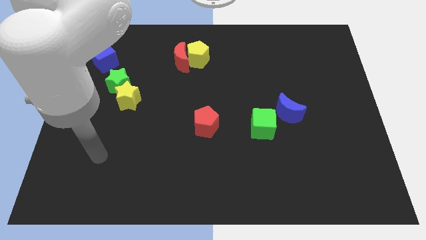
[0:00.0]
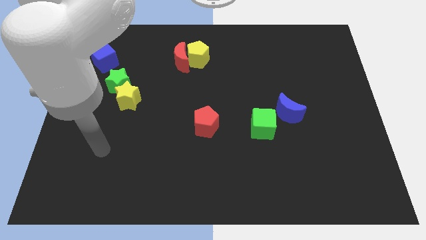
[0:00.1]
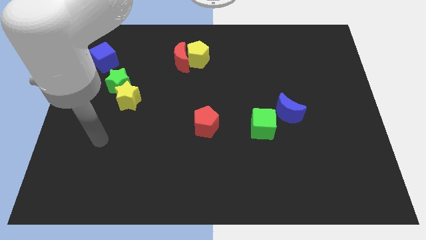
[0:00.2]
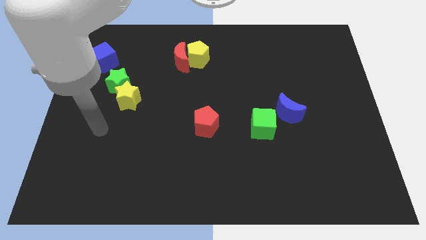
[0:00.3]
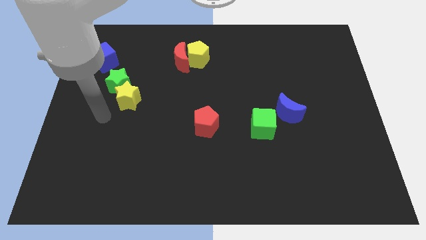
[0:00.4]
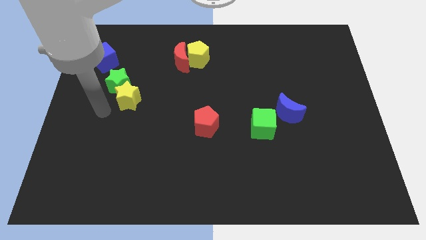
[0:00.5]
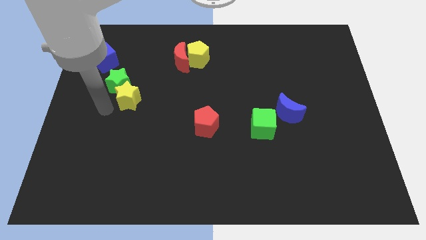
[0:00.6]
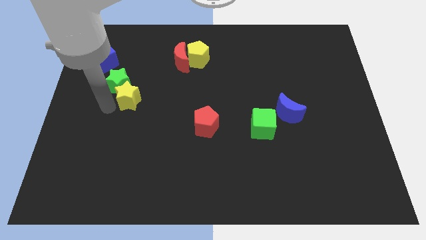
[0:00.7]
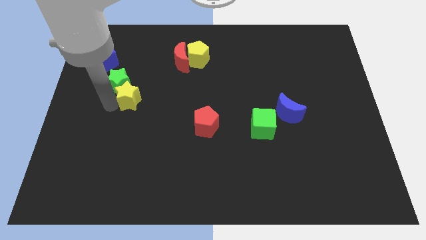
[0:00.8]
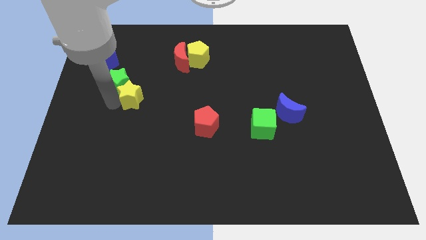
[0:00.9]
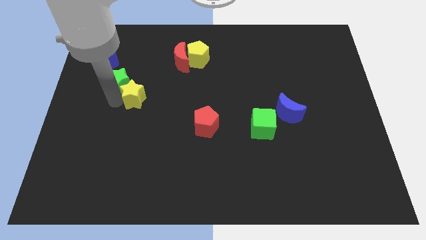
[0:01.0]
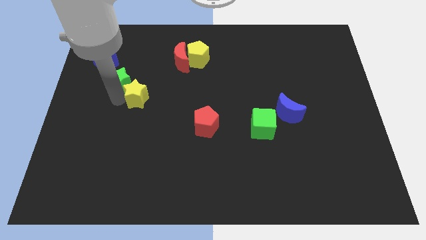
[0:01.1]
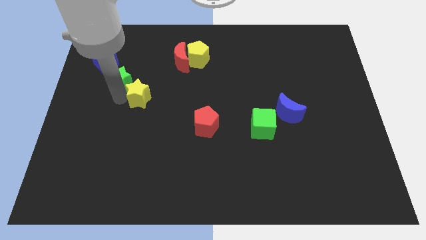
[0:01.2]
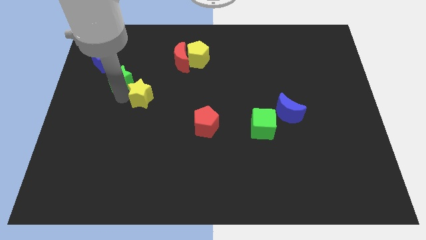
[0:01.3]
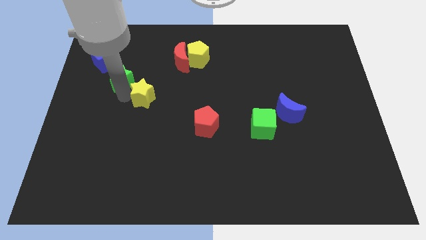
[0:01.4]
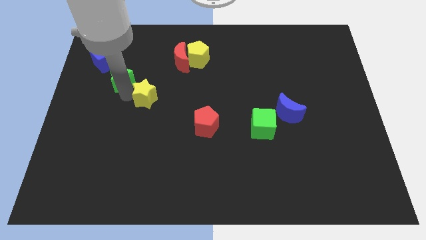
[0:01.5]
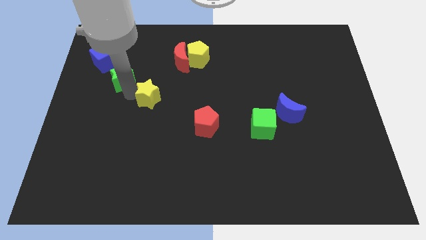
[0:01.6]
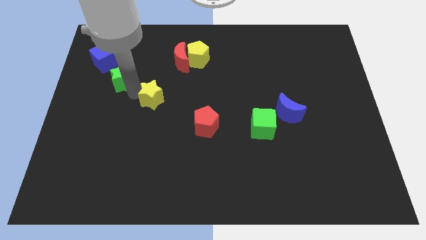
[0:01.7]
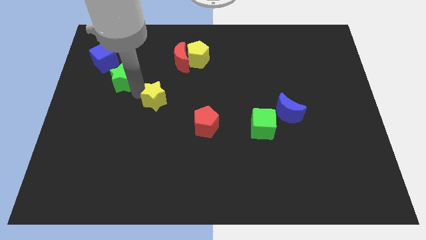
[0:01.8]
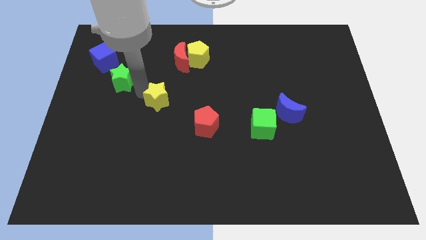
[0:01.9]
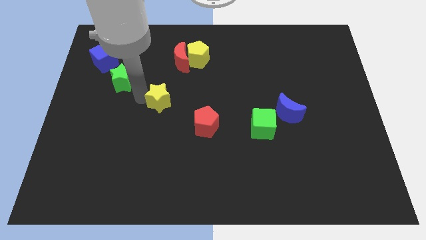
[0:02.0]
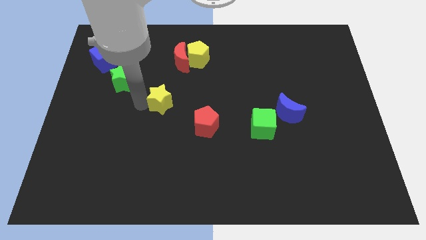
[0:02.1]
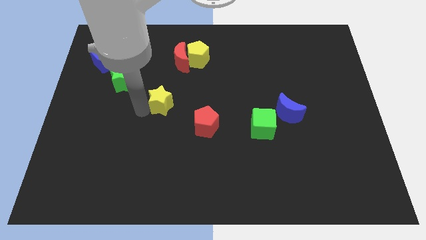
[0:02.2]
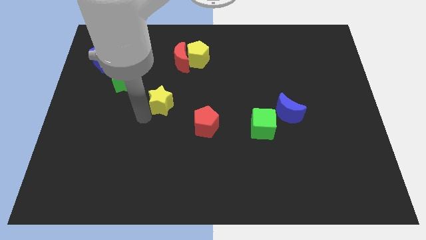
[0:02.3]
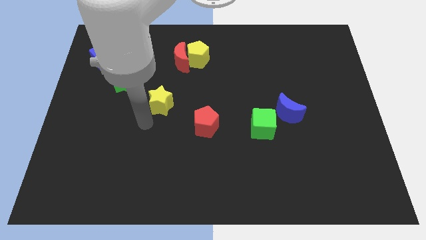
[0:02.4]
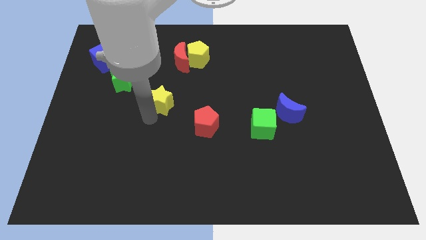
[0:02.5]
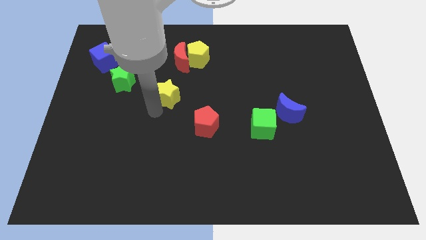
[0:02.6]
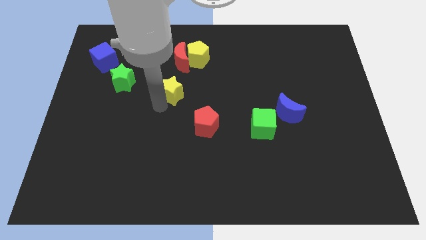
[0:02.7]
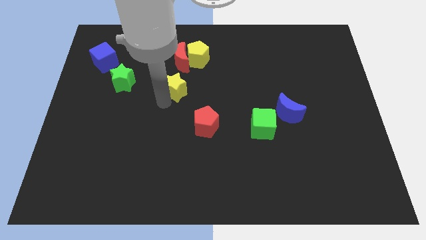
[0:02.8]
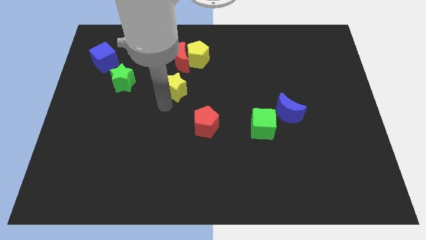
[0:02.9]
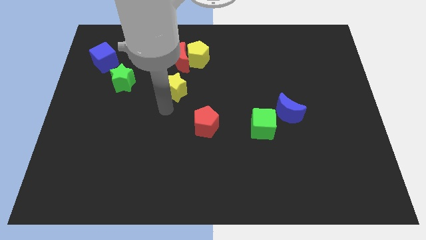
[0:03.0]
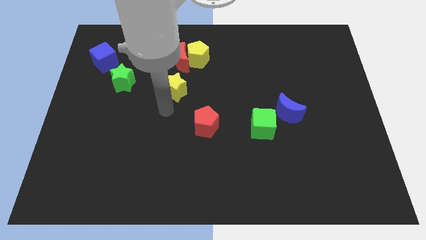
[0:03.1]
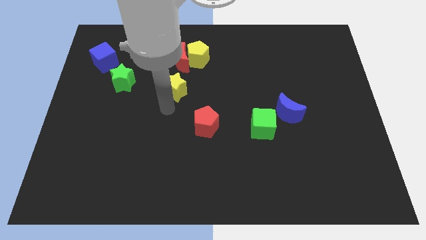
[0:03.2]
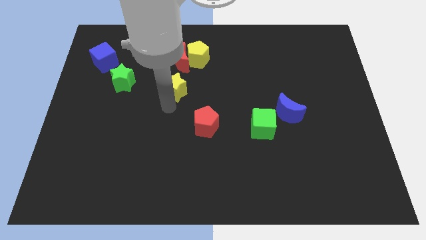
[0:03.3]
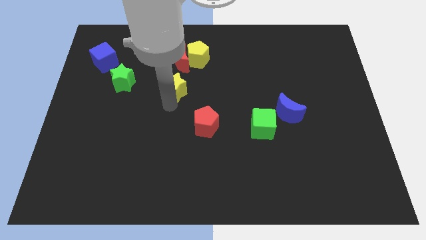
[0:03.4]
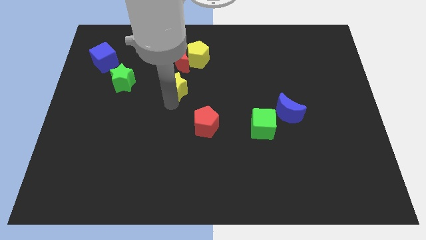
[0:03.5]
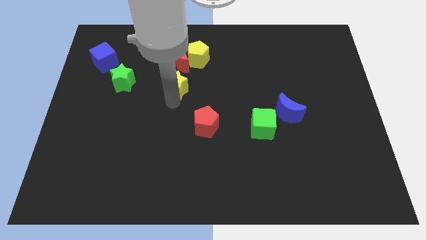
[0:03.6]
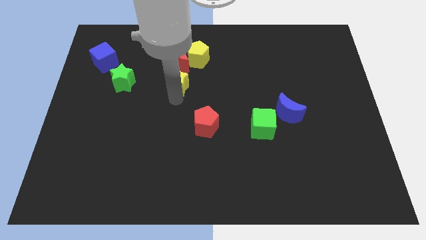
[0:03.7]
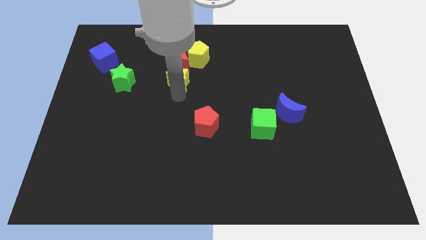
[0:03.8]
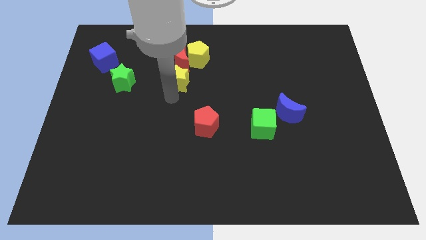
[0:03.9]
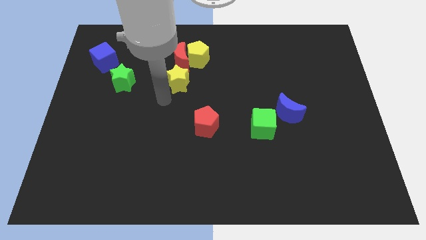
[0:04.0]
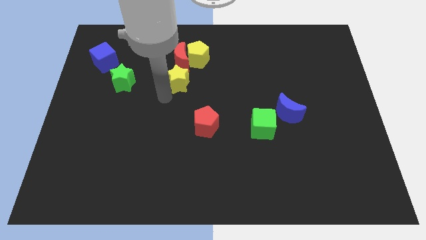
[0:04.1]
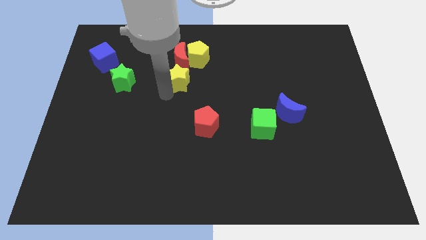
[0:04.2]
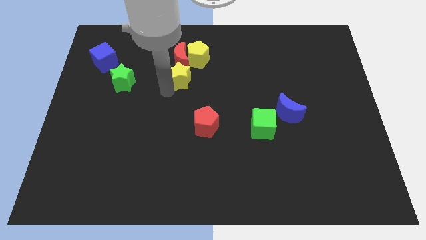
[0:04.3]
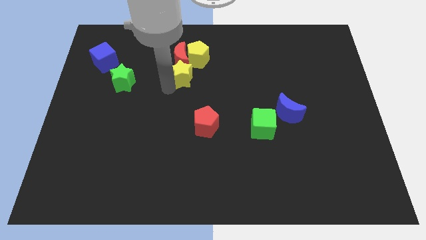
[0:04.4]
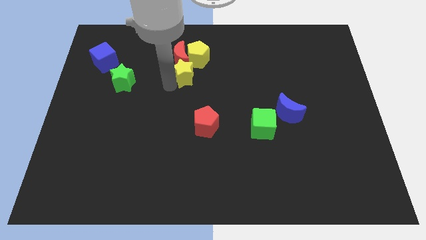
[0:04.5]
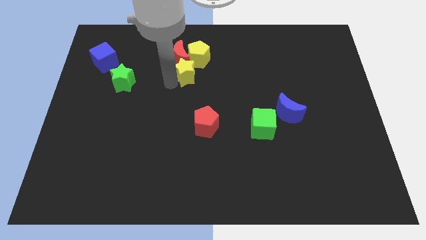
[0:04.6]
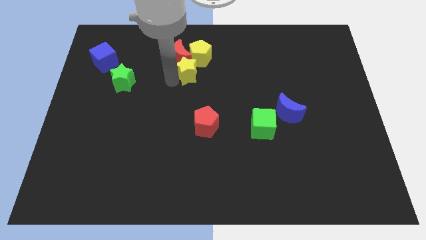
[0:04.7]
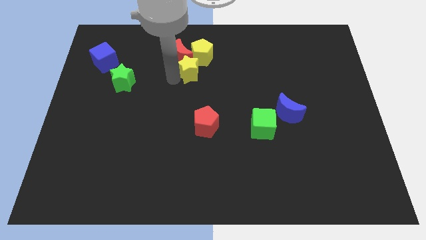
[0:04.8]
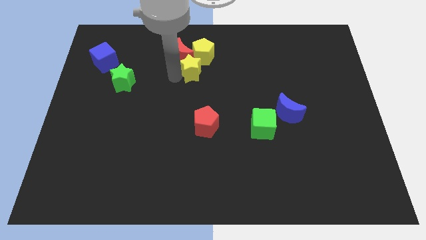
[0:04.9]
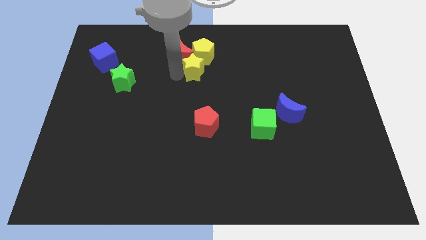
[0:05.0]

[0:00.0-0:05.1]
put the yellow star close to the yellow pentagon

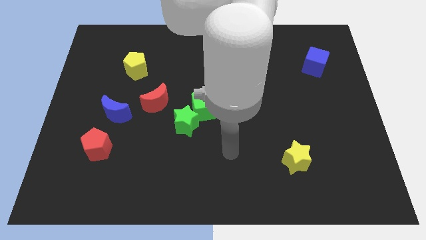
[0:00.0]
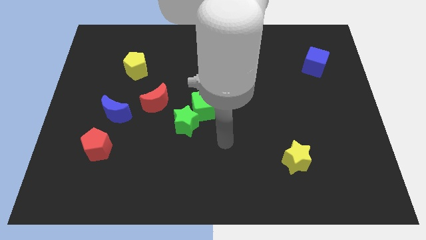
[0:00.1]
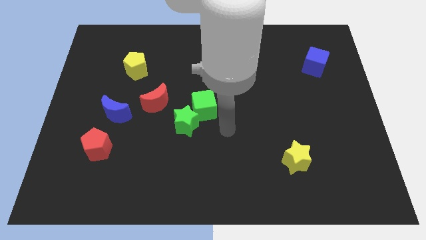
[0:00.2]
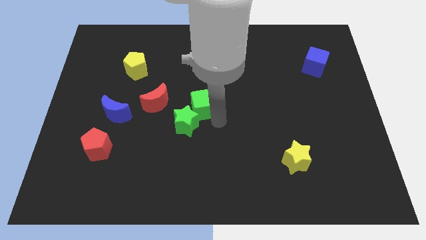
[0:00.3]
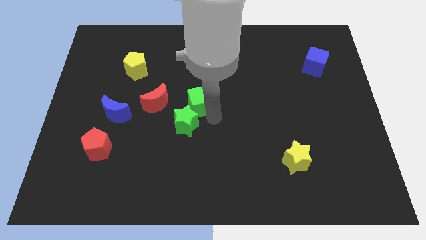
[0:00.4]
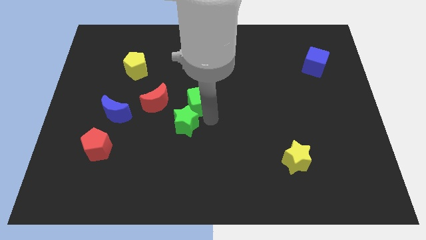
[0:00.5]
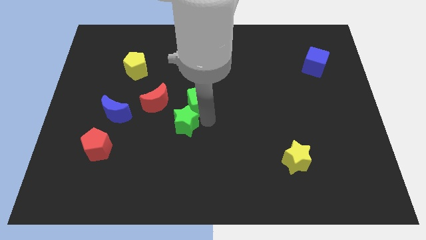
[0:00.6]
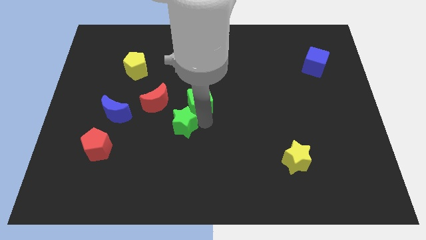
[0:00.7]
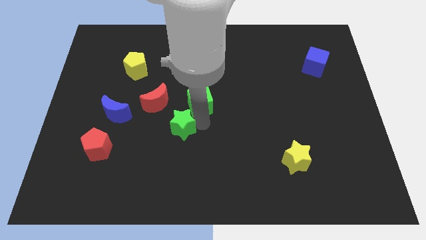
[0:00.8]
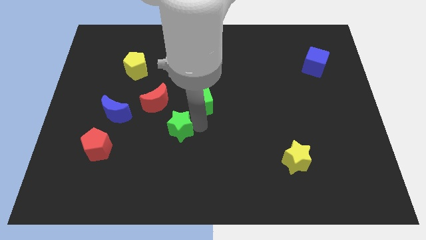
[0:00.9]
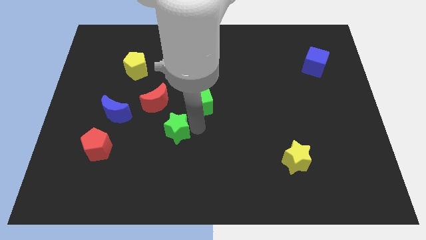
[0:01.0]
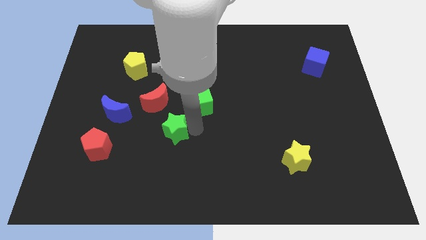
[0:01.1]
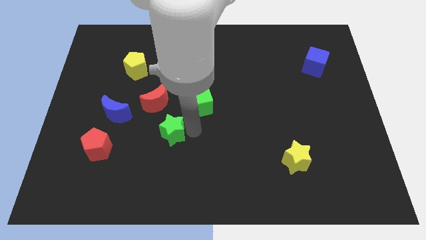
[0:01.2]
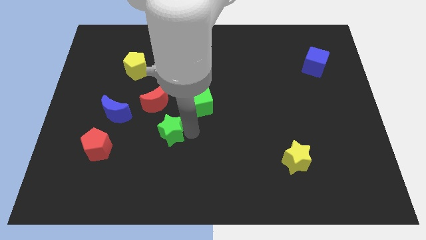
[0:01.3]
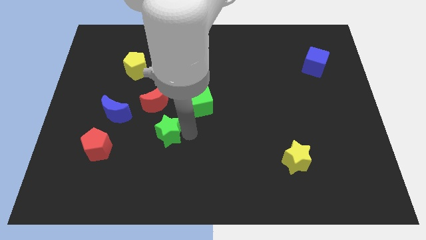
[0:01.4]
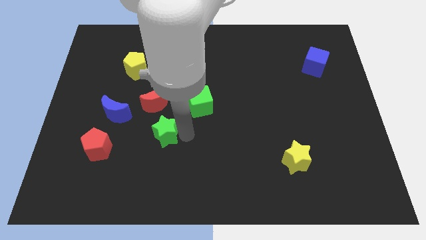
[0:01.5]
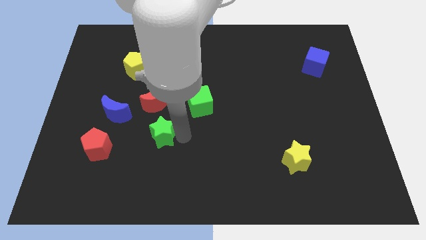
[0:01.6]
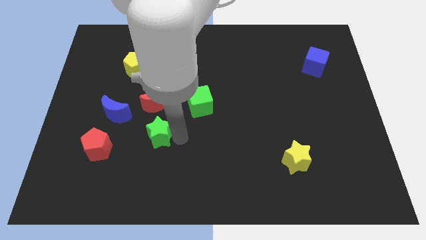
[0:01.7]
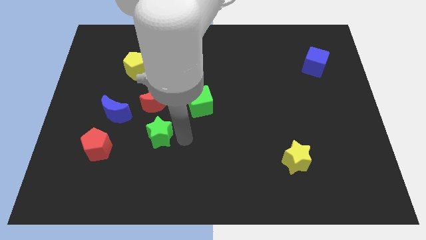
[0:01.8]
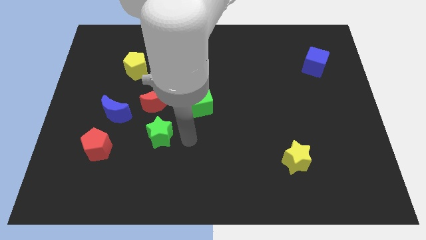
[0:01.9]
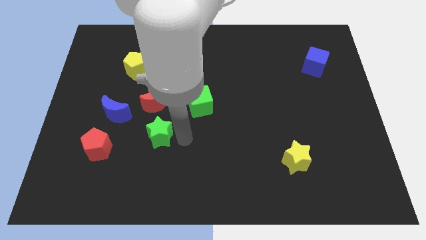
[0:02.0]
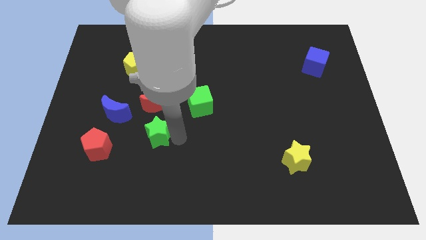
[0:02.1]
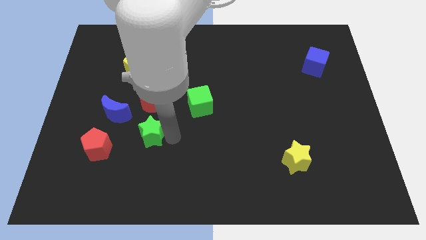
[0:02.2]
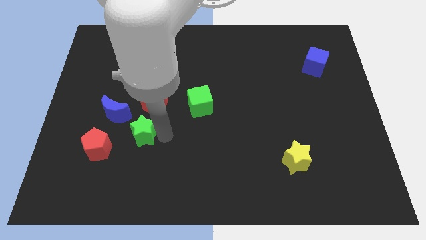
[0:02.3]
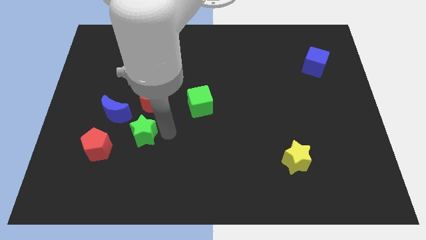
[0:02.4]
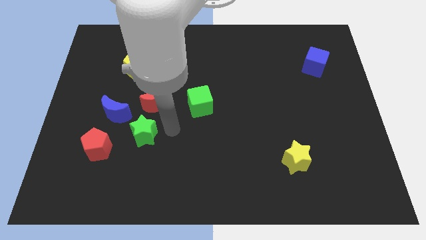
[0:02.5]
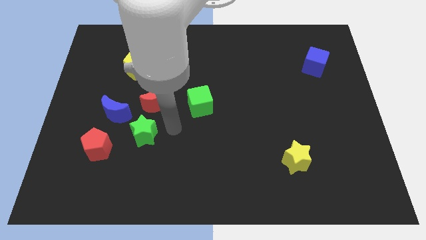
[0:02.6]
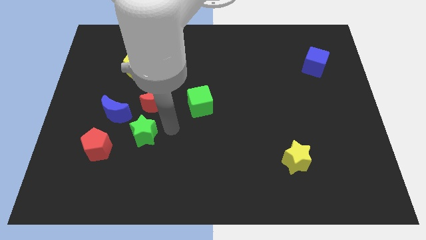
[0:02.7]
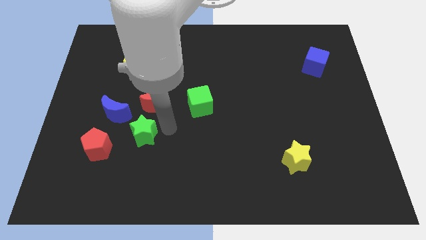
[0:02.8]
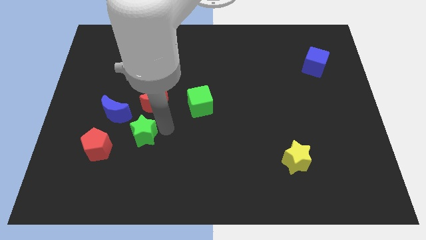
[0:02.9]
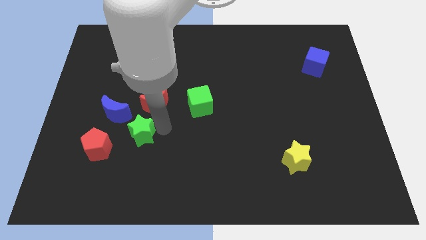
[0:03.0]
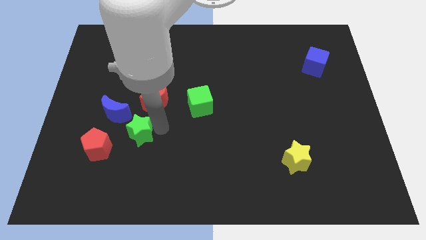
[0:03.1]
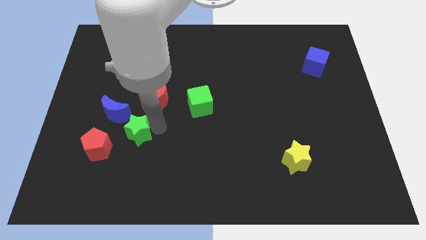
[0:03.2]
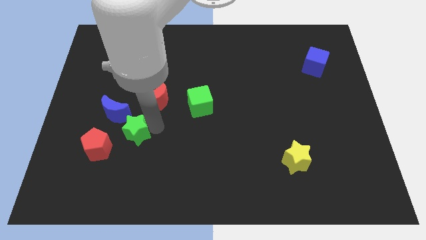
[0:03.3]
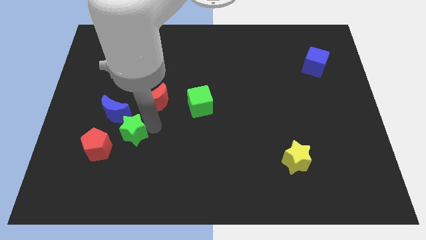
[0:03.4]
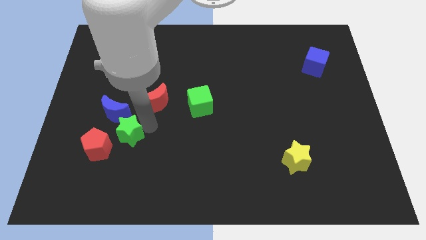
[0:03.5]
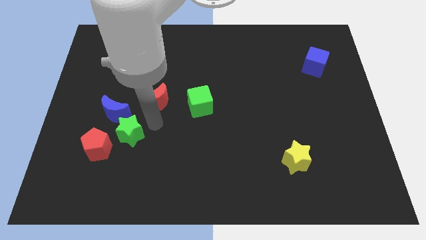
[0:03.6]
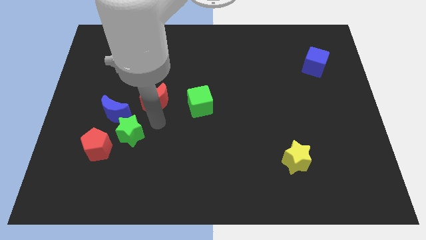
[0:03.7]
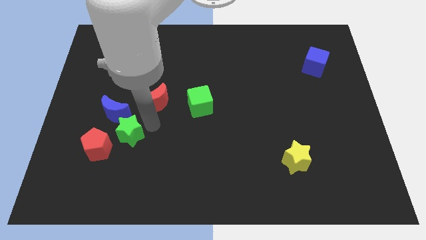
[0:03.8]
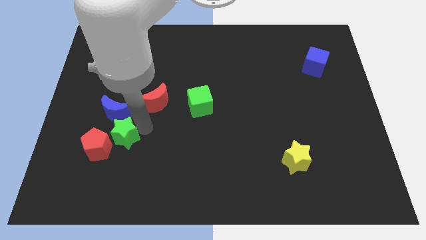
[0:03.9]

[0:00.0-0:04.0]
move the green star next to the red pentagon
